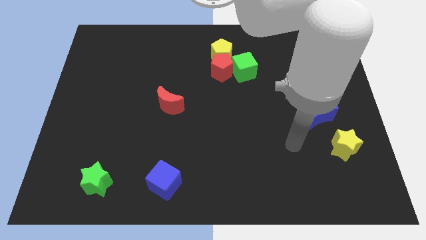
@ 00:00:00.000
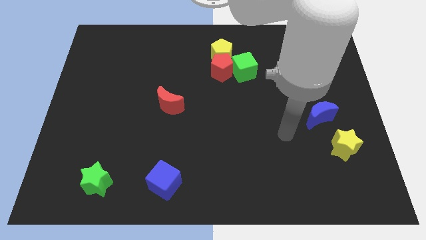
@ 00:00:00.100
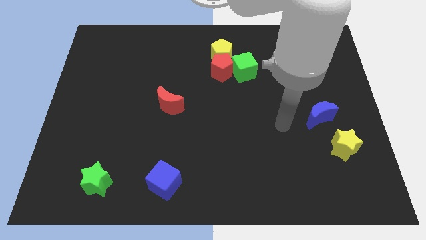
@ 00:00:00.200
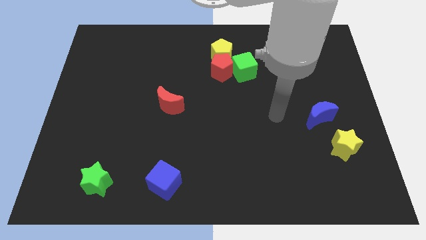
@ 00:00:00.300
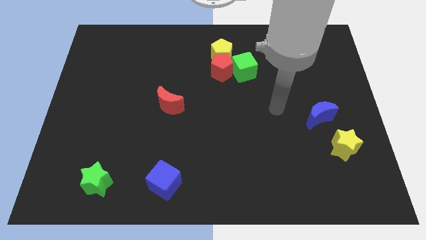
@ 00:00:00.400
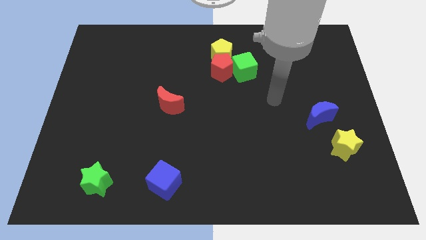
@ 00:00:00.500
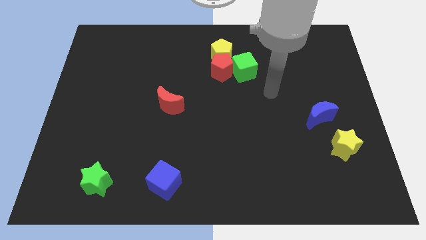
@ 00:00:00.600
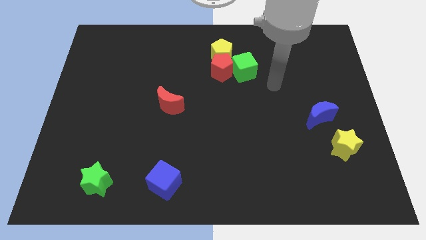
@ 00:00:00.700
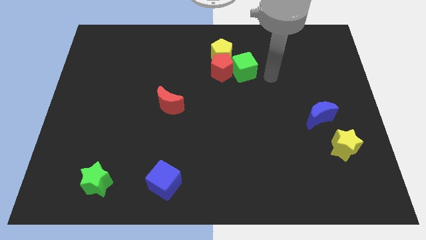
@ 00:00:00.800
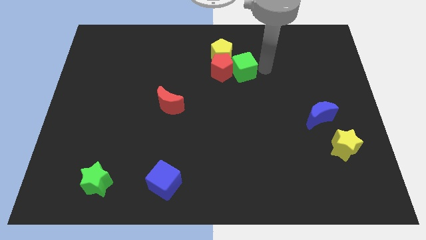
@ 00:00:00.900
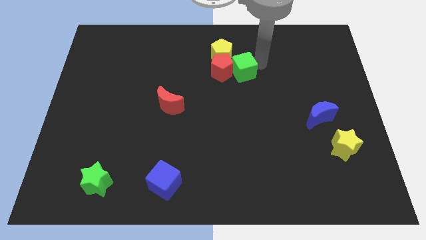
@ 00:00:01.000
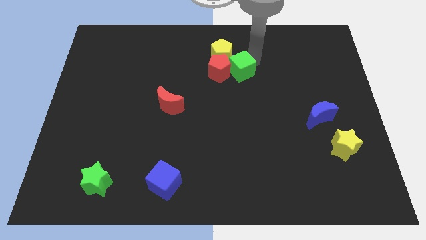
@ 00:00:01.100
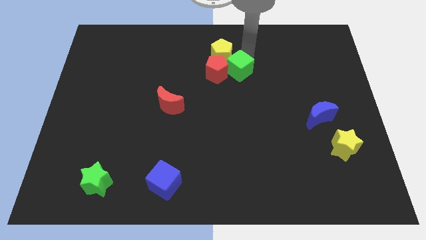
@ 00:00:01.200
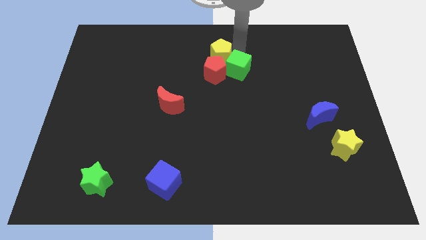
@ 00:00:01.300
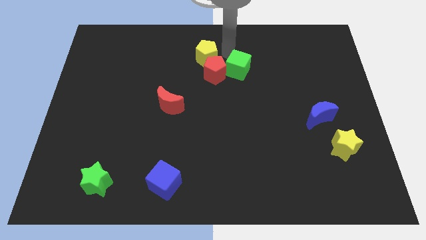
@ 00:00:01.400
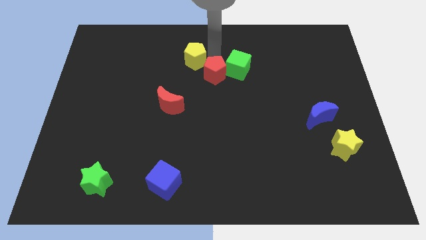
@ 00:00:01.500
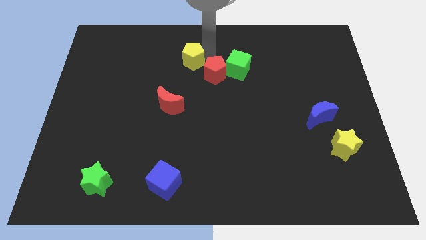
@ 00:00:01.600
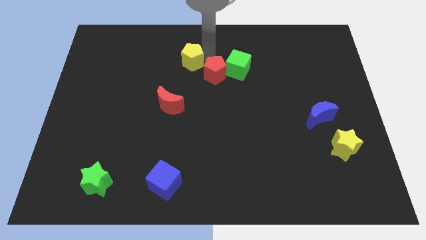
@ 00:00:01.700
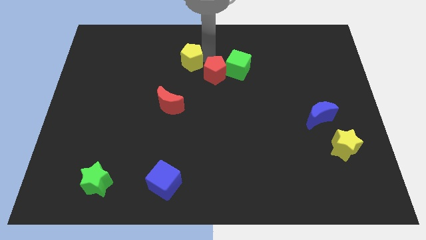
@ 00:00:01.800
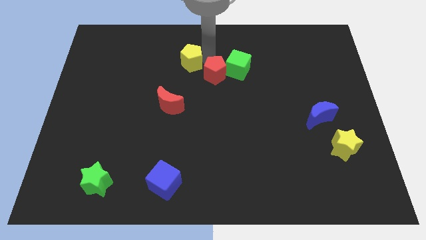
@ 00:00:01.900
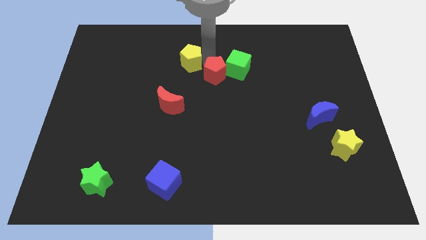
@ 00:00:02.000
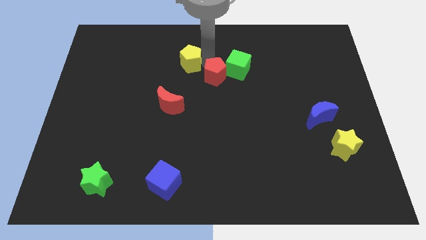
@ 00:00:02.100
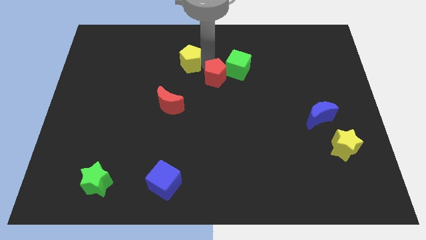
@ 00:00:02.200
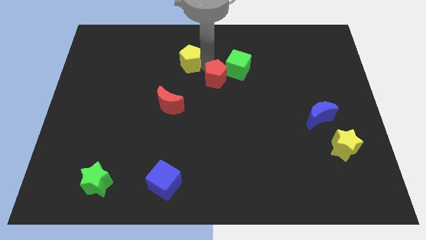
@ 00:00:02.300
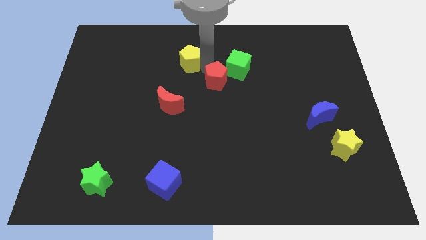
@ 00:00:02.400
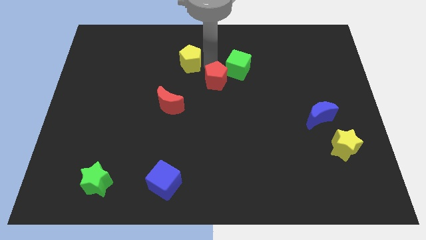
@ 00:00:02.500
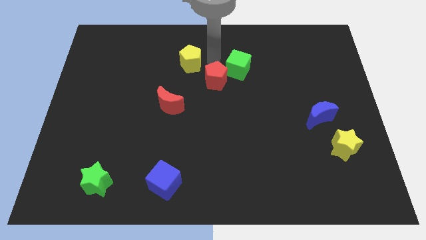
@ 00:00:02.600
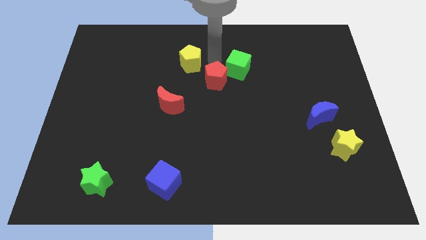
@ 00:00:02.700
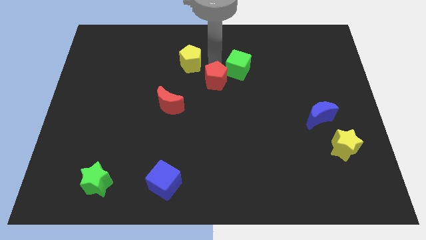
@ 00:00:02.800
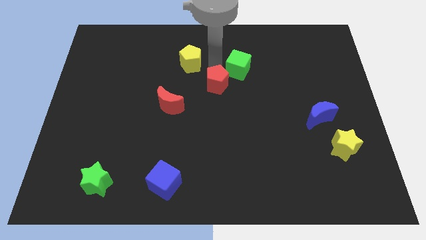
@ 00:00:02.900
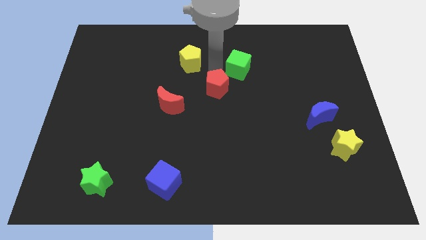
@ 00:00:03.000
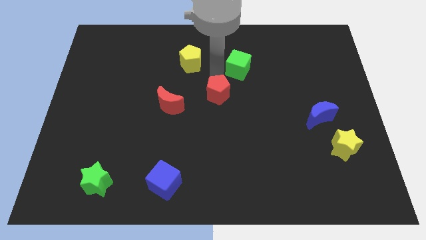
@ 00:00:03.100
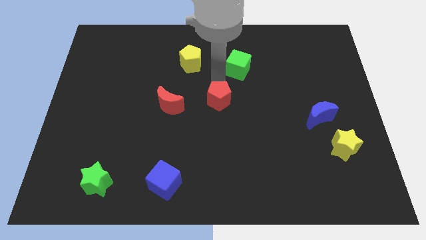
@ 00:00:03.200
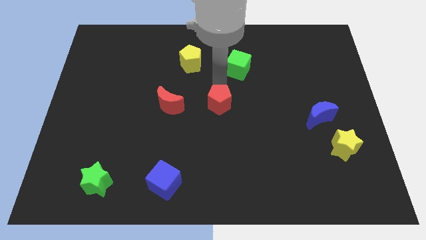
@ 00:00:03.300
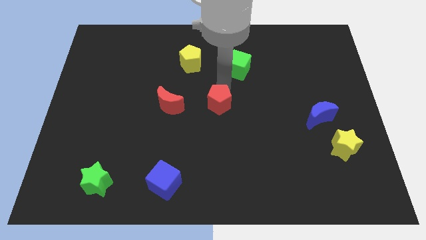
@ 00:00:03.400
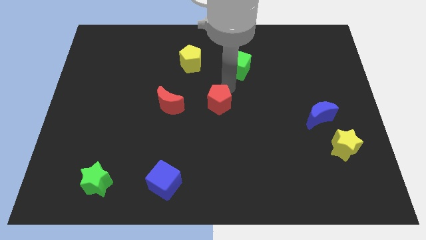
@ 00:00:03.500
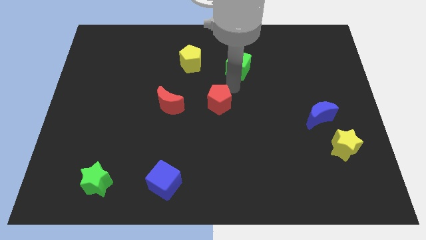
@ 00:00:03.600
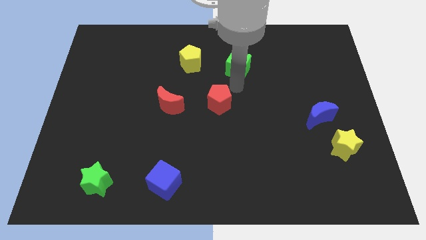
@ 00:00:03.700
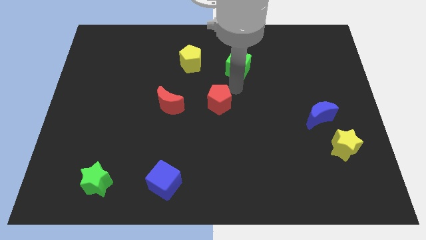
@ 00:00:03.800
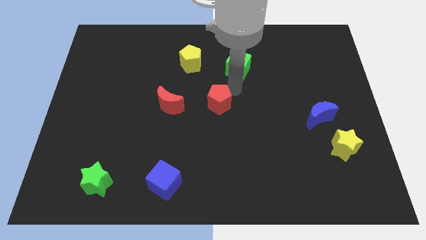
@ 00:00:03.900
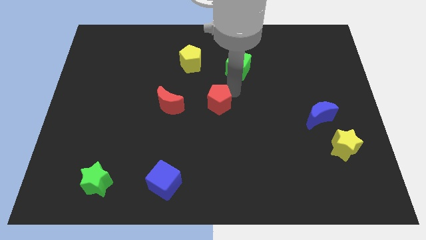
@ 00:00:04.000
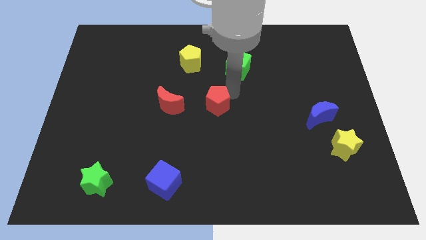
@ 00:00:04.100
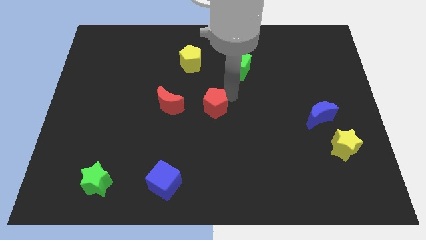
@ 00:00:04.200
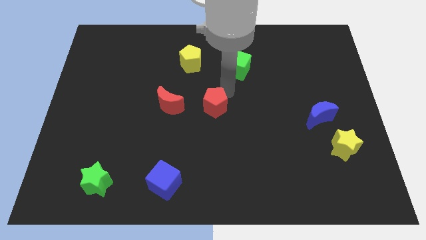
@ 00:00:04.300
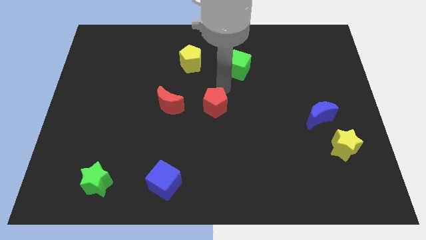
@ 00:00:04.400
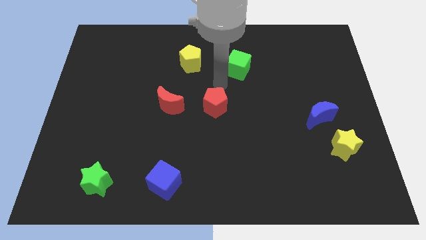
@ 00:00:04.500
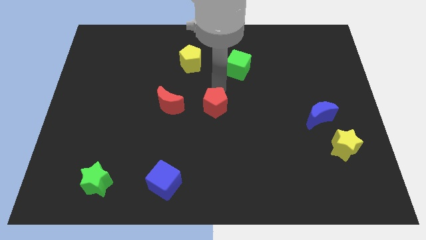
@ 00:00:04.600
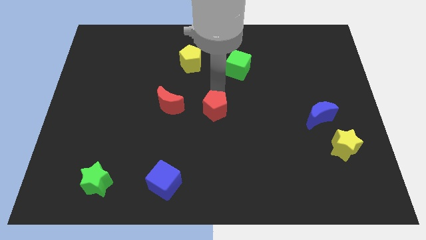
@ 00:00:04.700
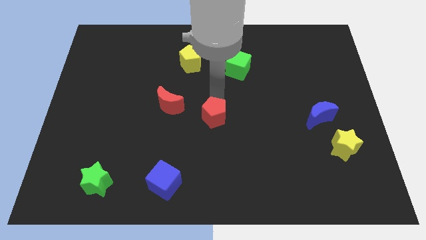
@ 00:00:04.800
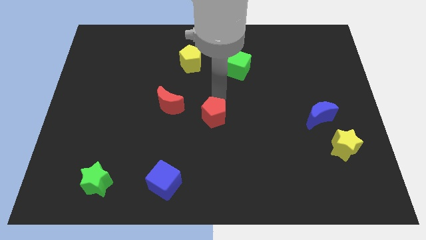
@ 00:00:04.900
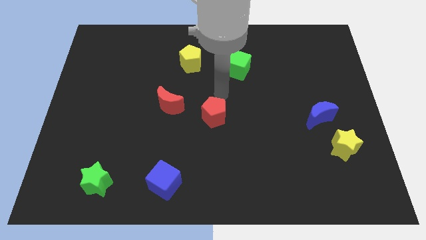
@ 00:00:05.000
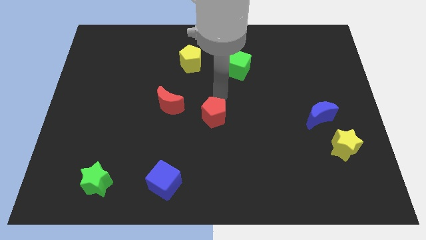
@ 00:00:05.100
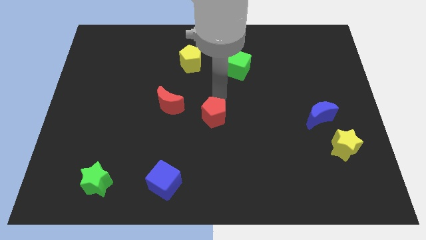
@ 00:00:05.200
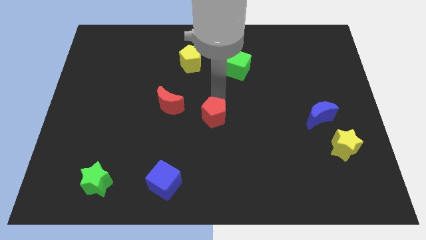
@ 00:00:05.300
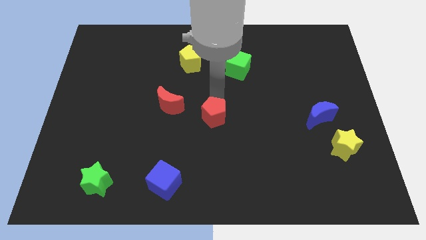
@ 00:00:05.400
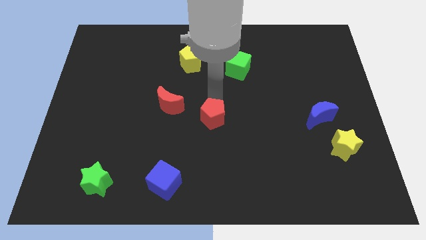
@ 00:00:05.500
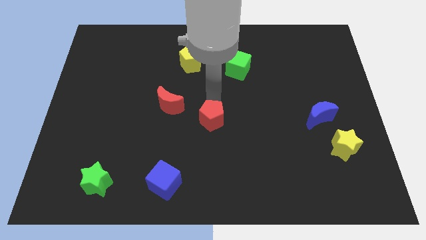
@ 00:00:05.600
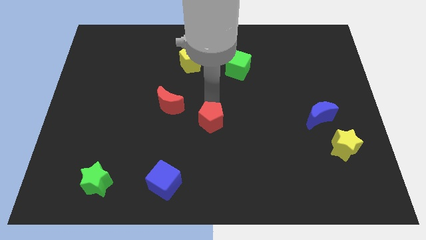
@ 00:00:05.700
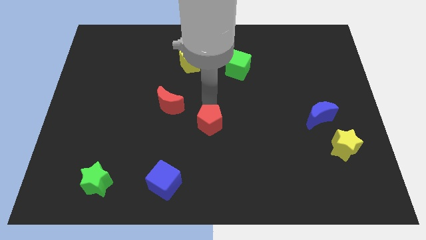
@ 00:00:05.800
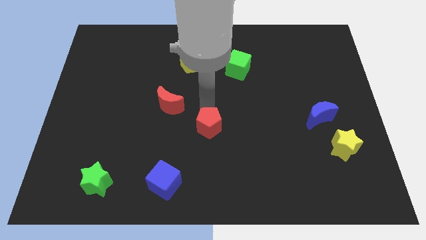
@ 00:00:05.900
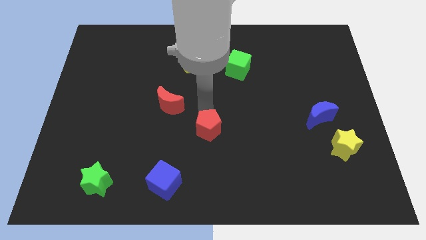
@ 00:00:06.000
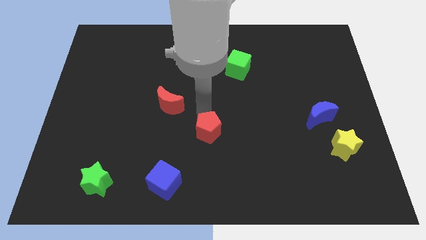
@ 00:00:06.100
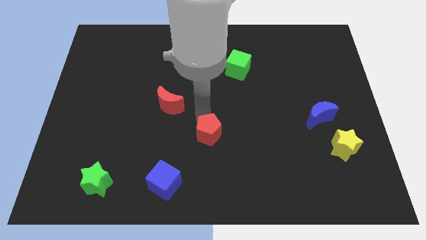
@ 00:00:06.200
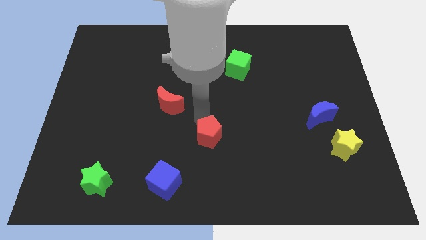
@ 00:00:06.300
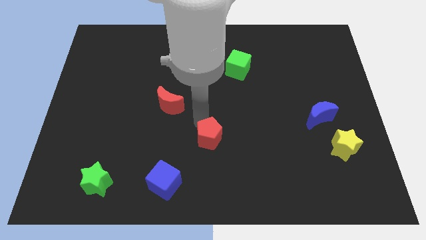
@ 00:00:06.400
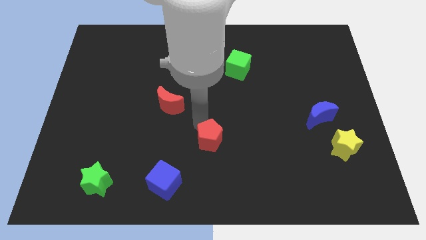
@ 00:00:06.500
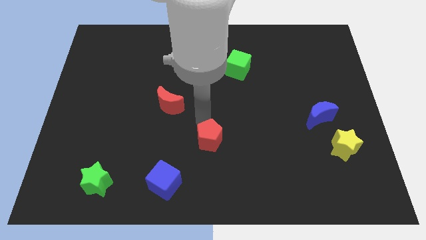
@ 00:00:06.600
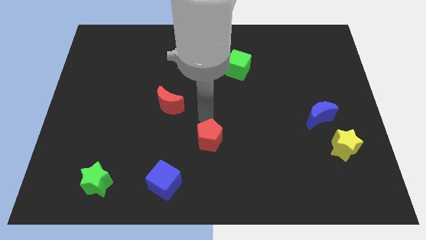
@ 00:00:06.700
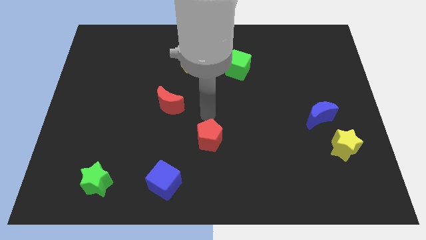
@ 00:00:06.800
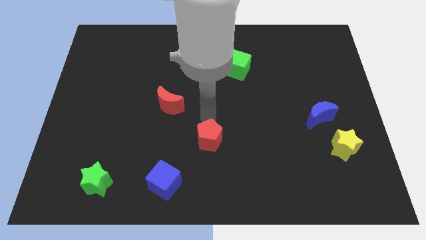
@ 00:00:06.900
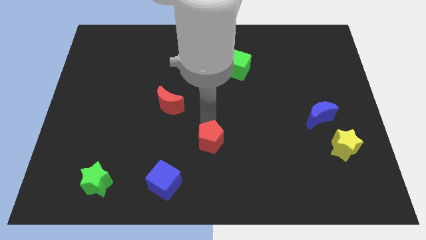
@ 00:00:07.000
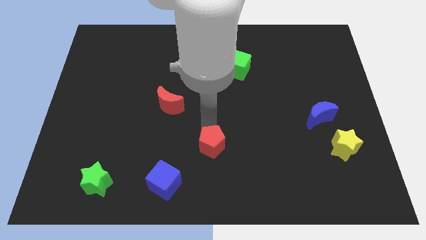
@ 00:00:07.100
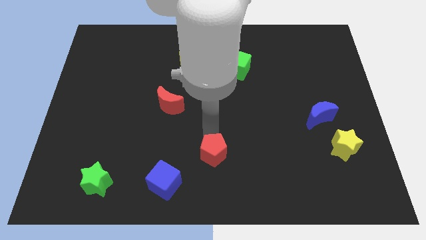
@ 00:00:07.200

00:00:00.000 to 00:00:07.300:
put the red pentagon to the bottom side

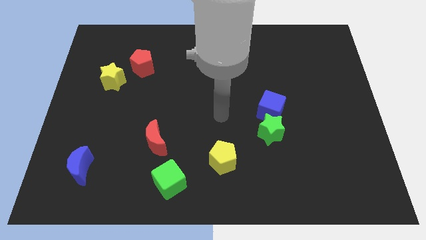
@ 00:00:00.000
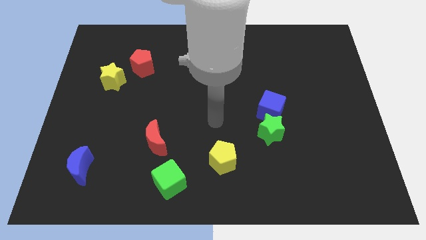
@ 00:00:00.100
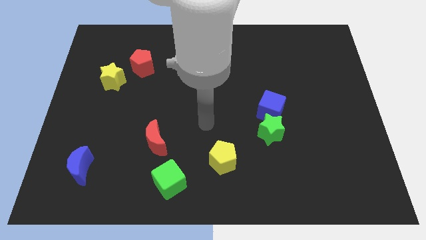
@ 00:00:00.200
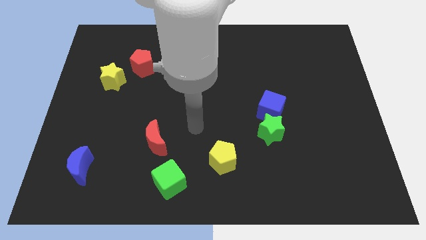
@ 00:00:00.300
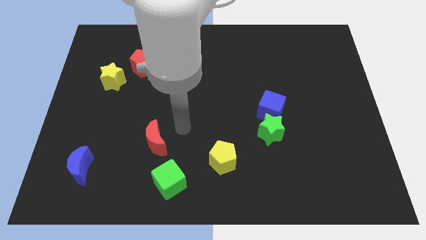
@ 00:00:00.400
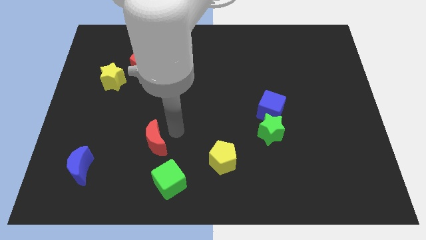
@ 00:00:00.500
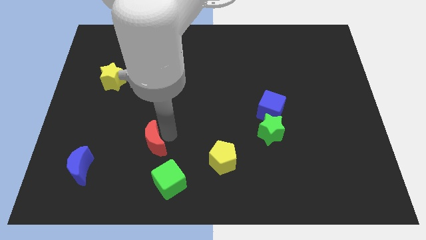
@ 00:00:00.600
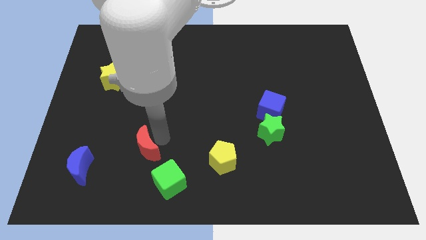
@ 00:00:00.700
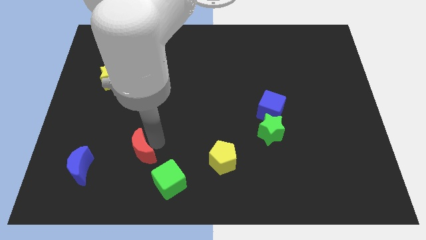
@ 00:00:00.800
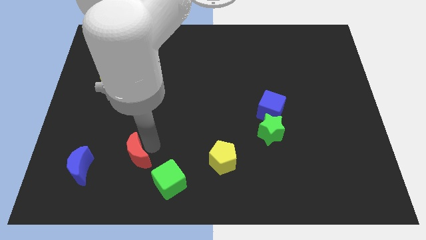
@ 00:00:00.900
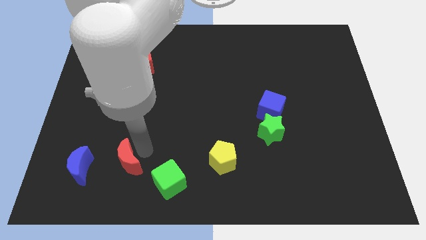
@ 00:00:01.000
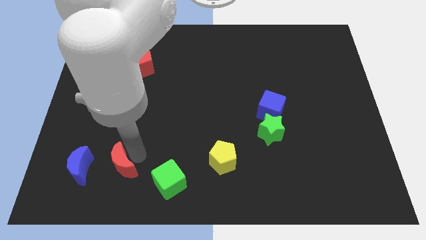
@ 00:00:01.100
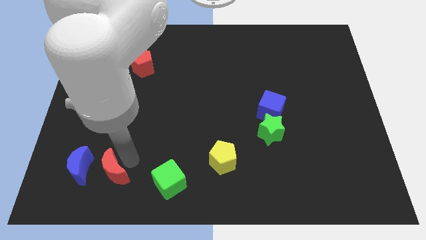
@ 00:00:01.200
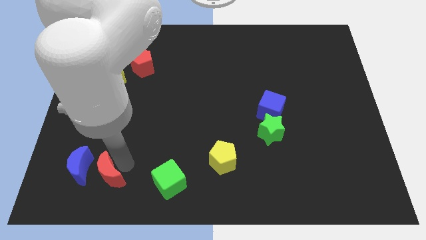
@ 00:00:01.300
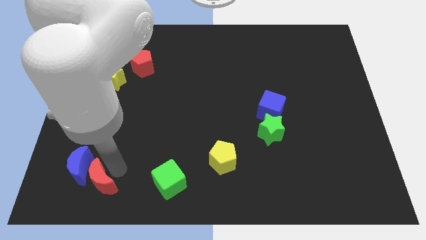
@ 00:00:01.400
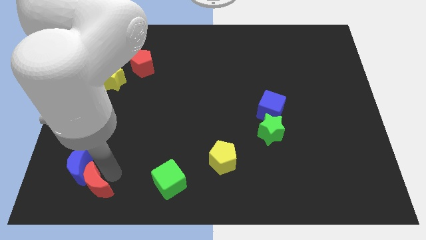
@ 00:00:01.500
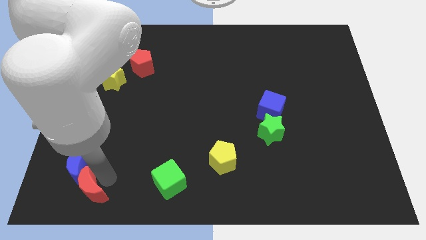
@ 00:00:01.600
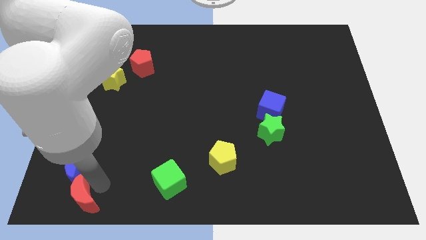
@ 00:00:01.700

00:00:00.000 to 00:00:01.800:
put the red moon to the bottom left corner
